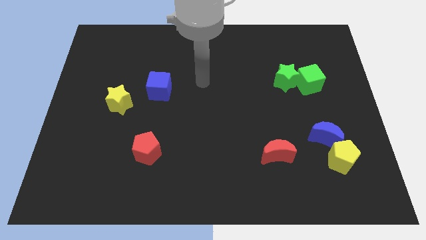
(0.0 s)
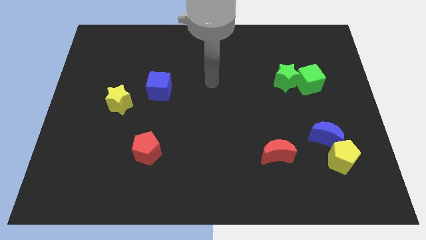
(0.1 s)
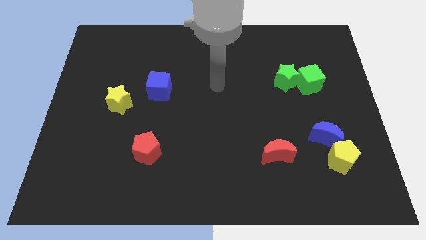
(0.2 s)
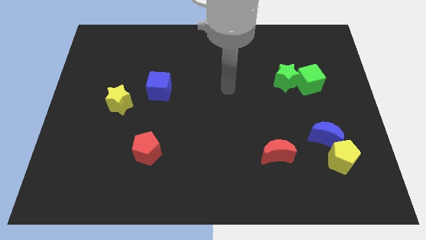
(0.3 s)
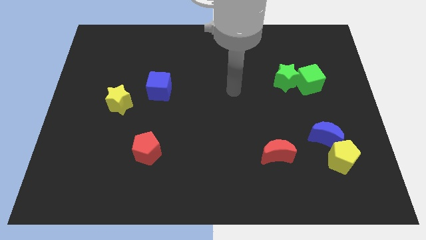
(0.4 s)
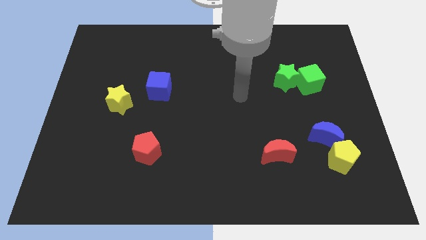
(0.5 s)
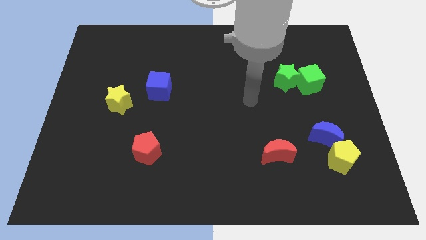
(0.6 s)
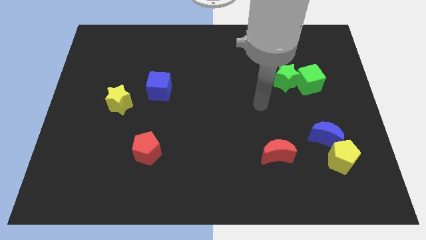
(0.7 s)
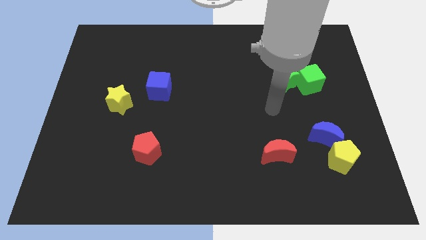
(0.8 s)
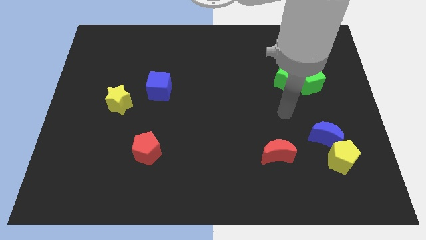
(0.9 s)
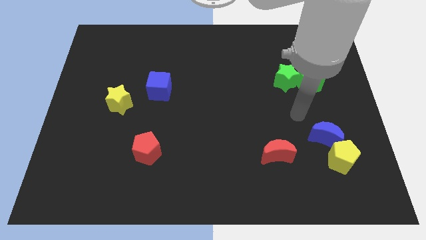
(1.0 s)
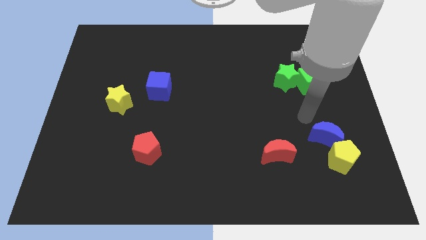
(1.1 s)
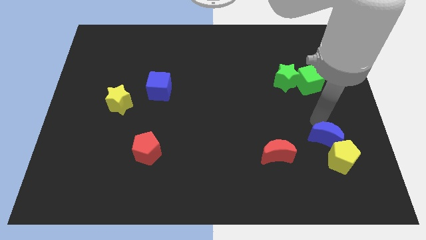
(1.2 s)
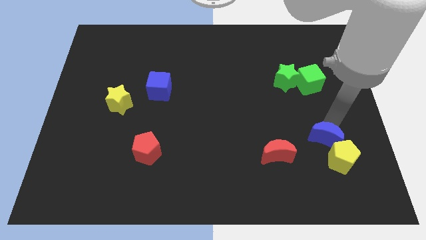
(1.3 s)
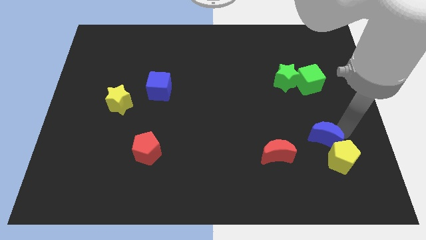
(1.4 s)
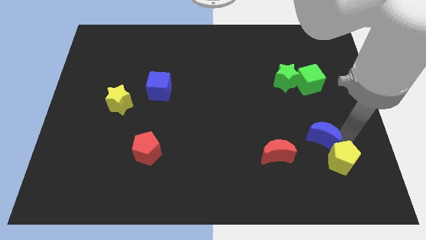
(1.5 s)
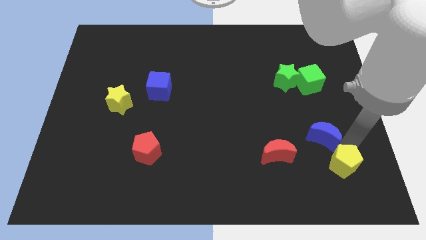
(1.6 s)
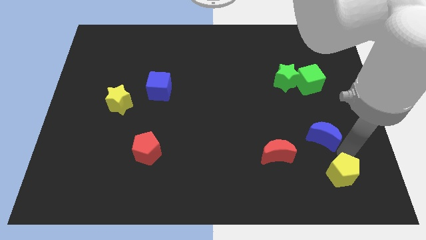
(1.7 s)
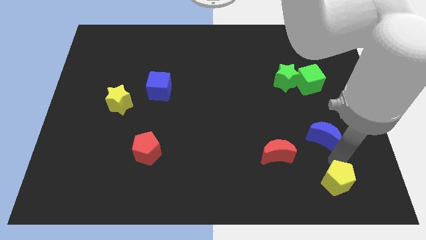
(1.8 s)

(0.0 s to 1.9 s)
move the blue moon away from the yellow pentagon

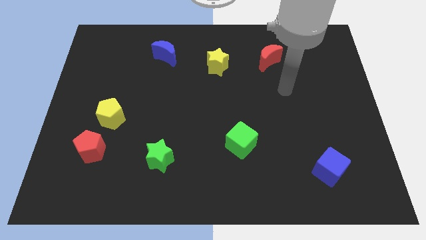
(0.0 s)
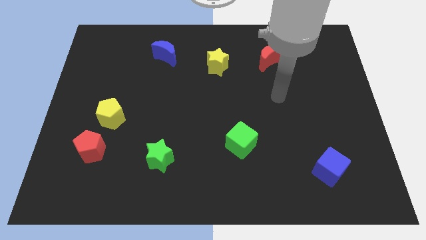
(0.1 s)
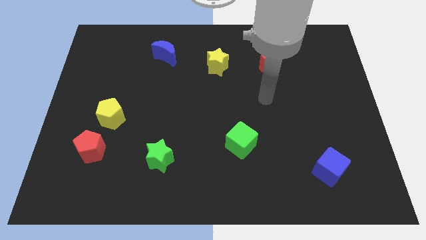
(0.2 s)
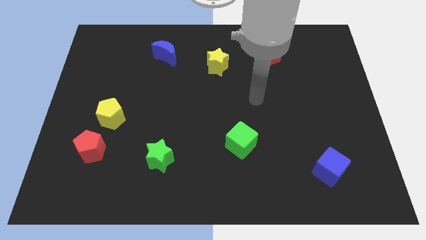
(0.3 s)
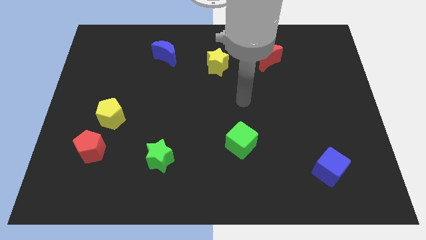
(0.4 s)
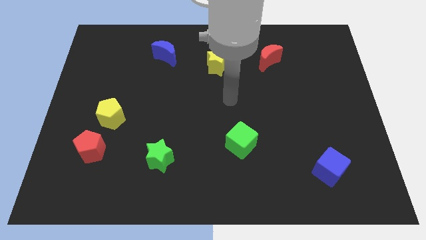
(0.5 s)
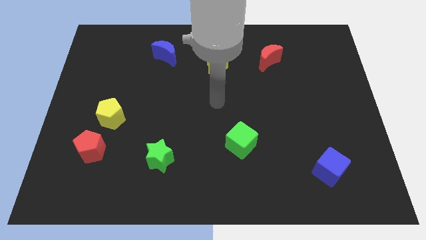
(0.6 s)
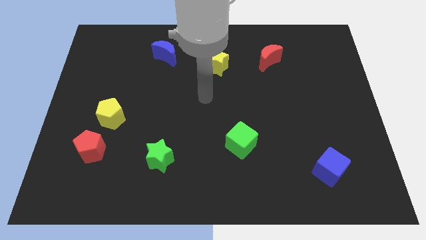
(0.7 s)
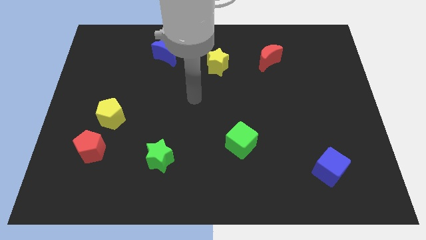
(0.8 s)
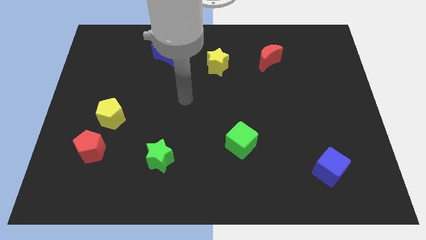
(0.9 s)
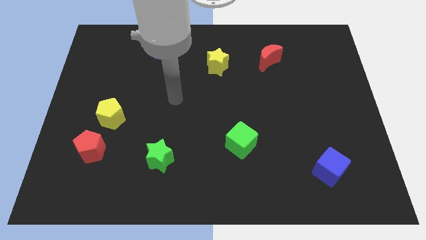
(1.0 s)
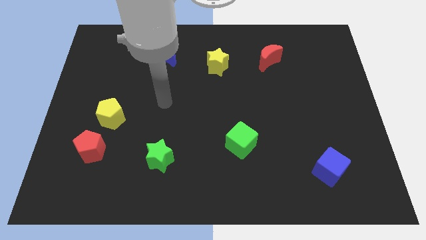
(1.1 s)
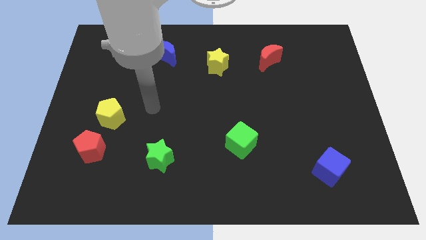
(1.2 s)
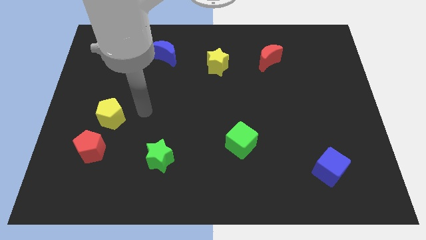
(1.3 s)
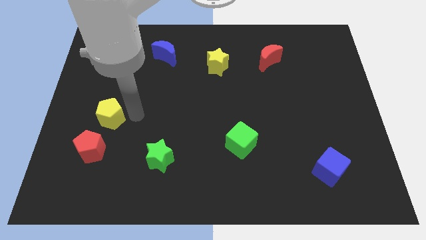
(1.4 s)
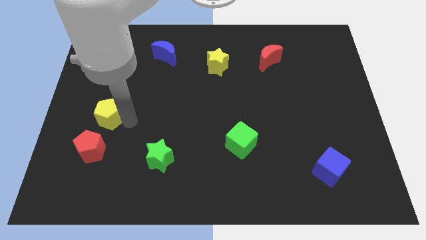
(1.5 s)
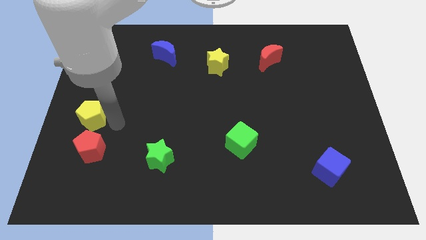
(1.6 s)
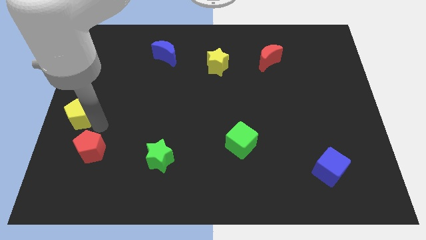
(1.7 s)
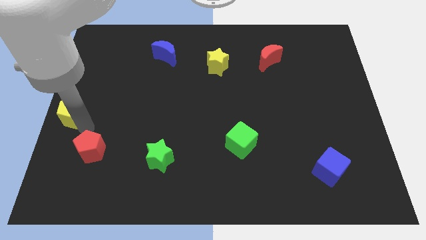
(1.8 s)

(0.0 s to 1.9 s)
pull the red pentagon apart from the yellow pentagon

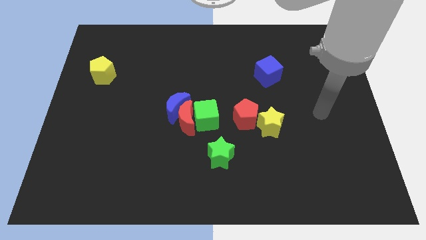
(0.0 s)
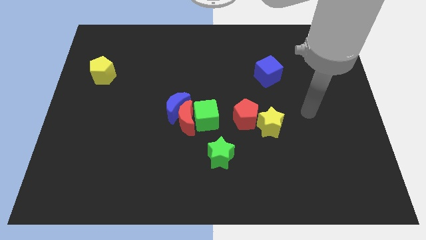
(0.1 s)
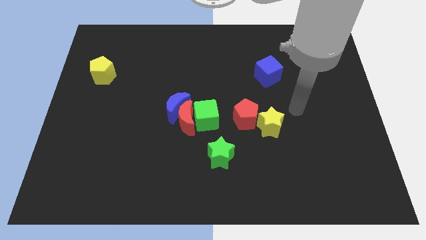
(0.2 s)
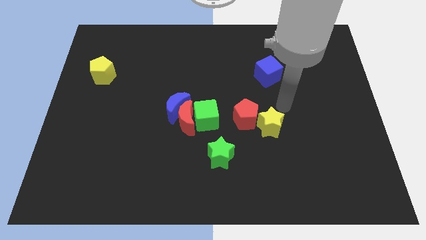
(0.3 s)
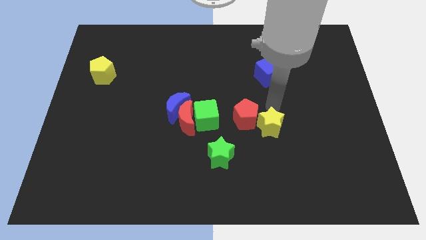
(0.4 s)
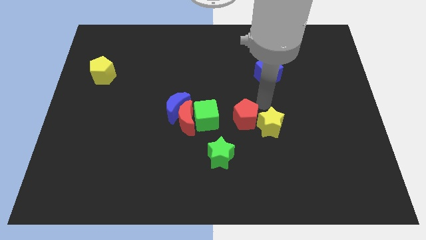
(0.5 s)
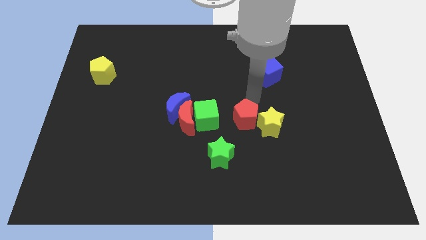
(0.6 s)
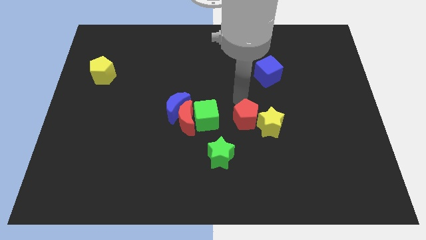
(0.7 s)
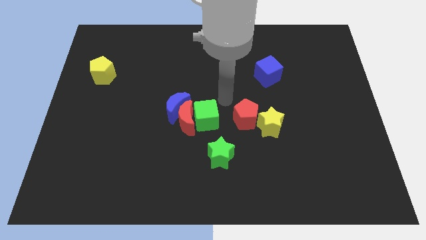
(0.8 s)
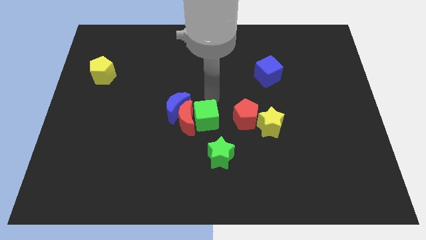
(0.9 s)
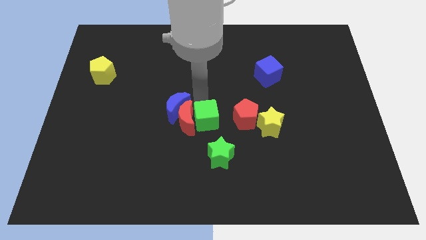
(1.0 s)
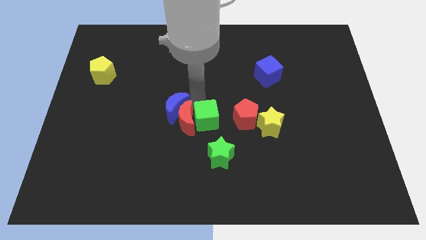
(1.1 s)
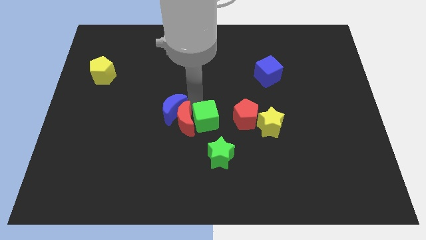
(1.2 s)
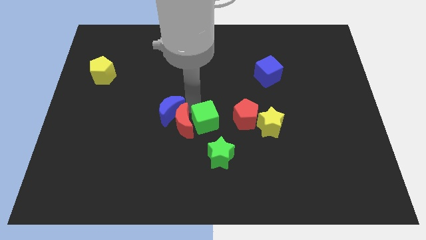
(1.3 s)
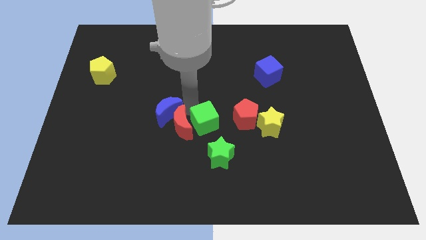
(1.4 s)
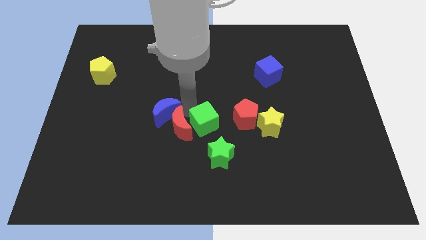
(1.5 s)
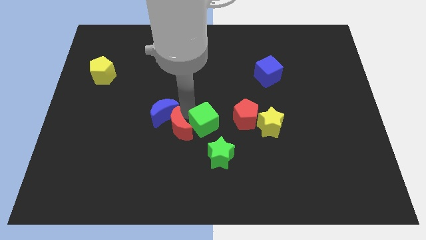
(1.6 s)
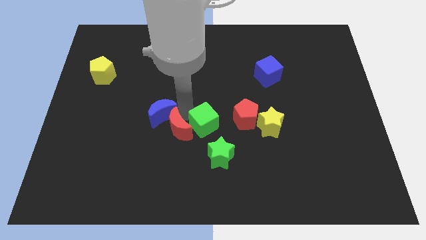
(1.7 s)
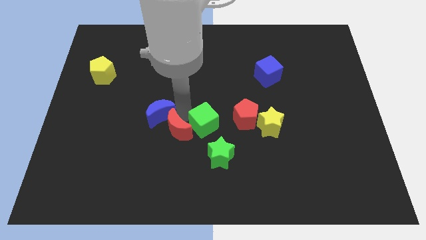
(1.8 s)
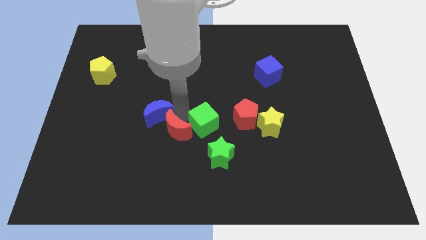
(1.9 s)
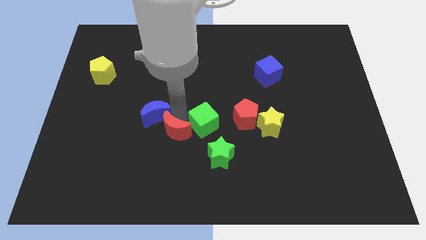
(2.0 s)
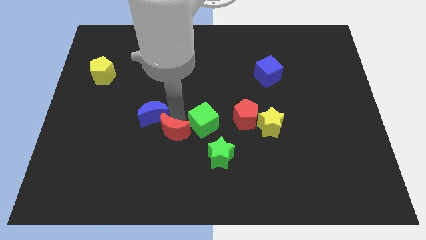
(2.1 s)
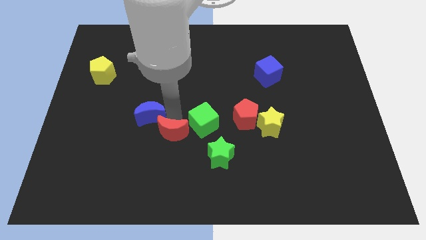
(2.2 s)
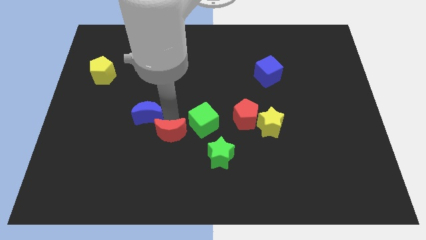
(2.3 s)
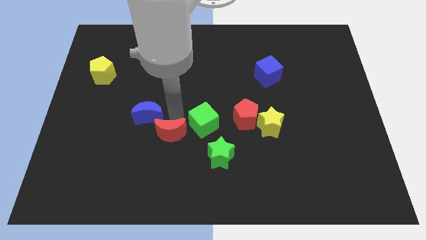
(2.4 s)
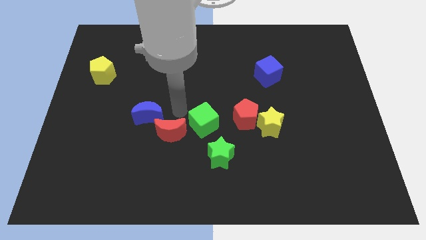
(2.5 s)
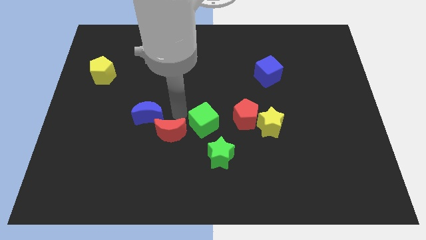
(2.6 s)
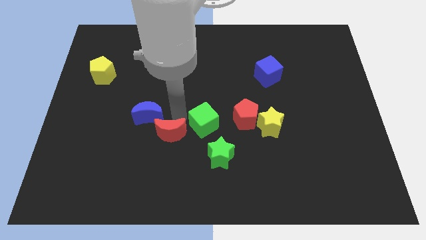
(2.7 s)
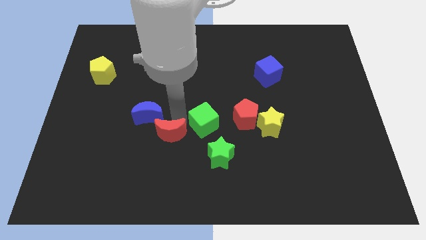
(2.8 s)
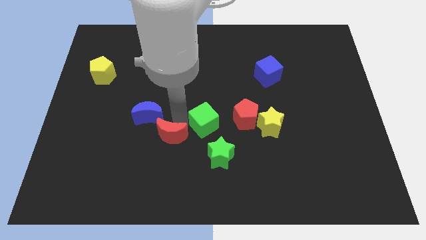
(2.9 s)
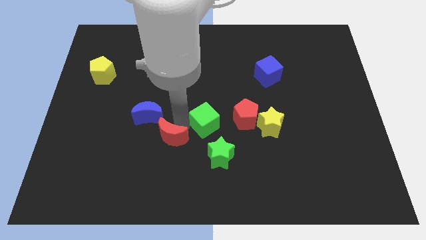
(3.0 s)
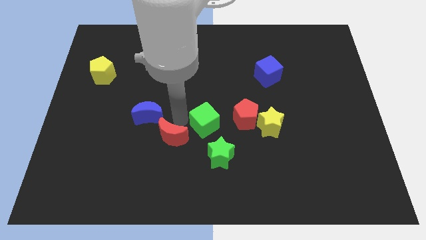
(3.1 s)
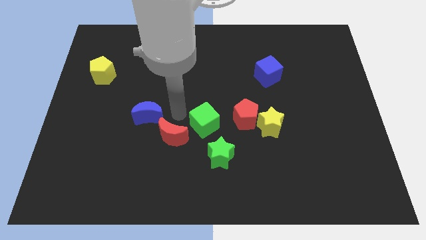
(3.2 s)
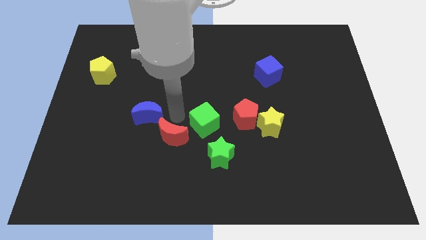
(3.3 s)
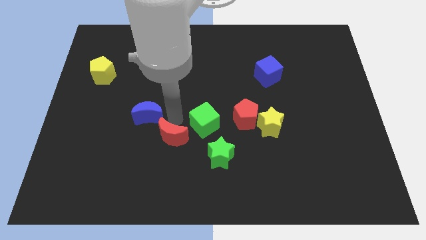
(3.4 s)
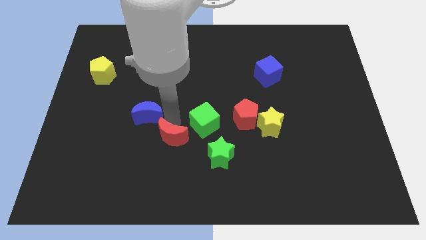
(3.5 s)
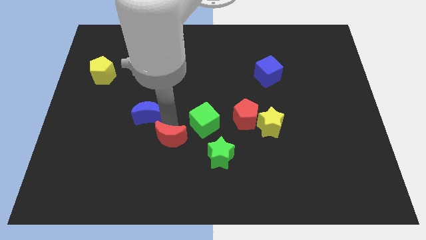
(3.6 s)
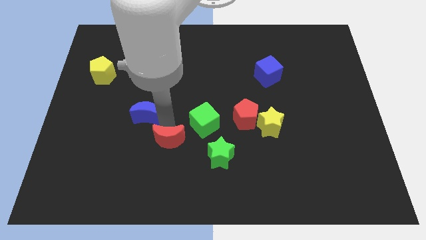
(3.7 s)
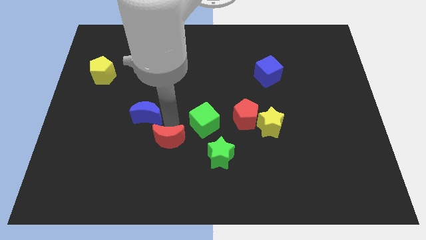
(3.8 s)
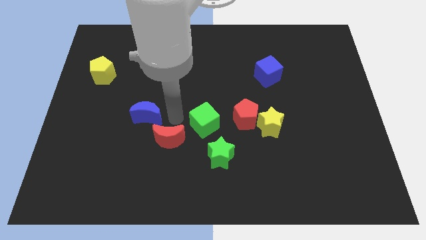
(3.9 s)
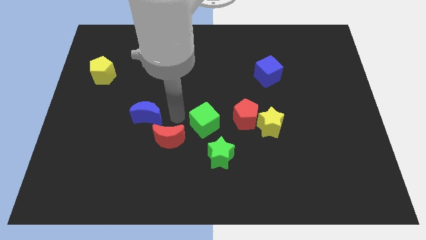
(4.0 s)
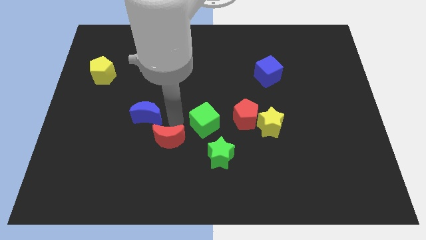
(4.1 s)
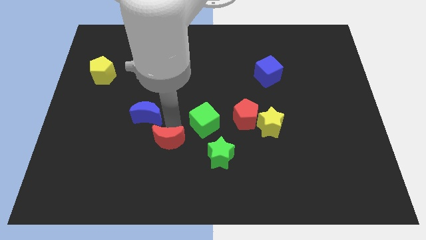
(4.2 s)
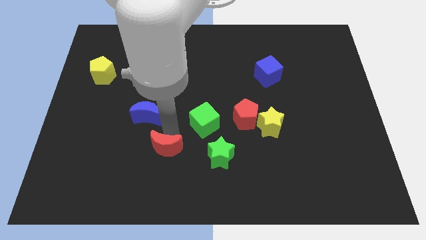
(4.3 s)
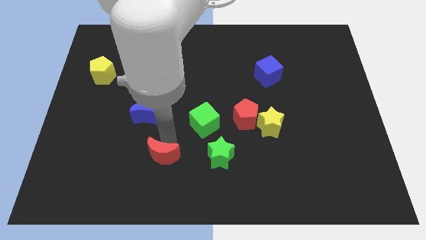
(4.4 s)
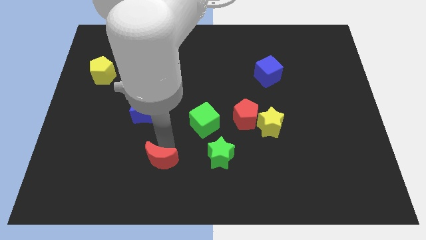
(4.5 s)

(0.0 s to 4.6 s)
separate the red moon from the blue moon and green cube

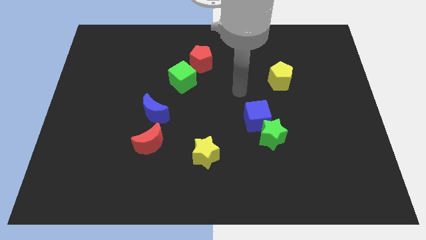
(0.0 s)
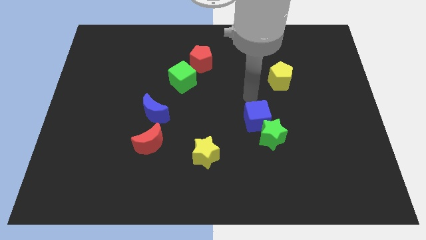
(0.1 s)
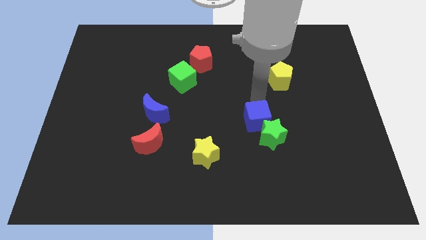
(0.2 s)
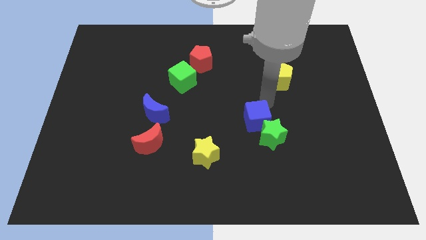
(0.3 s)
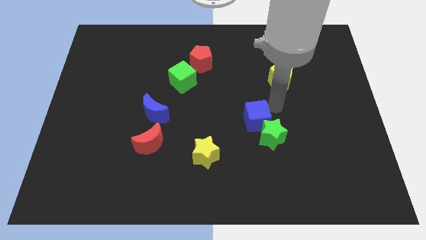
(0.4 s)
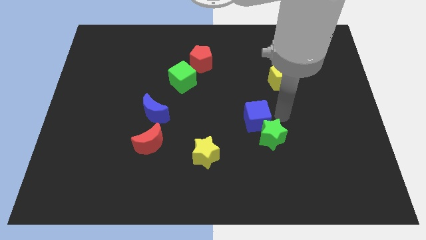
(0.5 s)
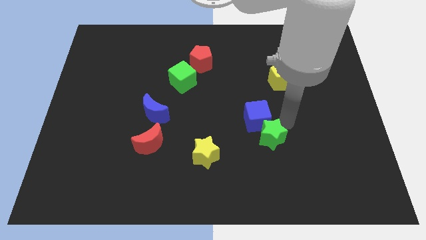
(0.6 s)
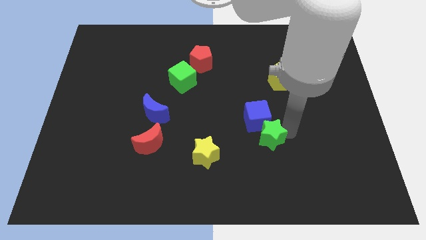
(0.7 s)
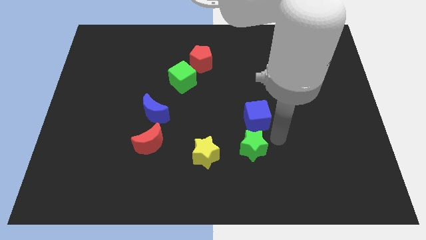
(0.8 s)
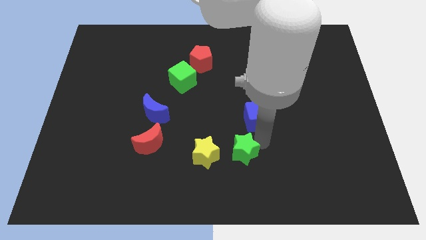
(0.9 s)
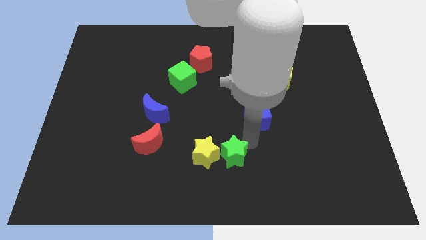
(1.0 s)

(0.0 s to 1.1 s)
pull the blue cube apart from the green star

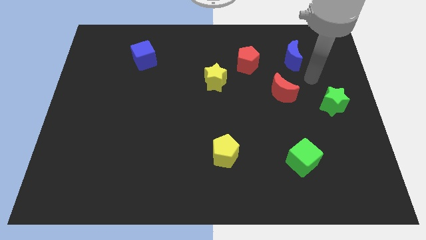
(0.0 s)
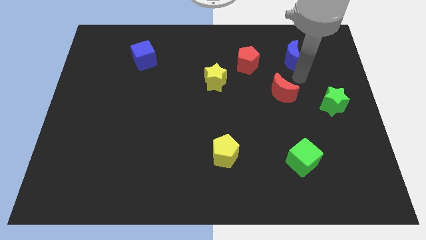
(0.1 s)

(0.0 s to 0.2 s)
move the red pentagon away from the yellow star
